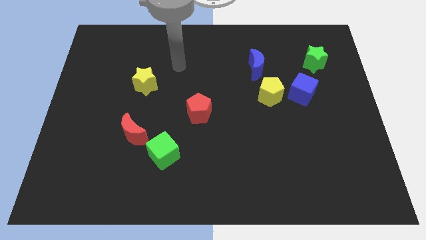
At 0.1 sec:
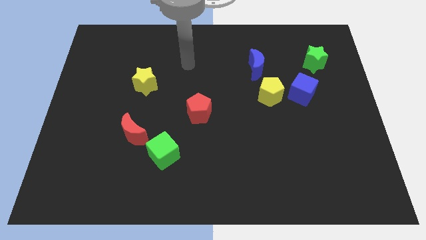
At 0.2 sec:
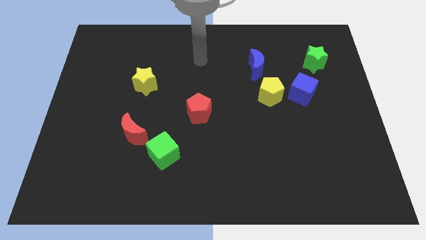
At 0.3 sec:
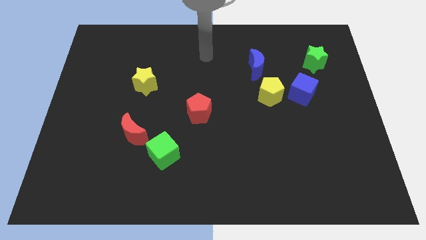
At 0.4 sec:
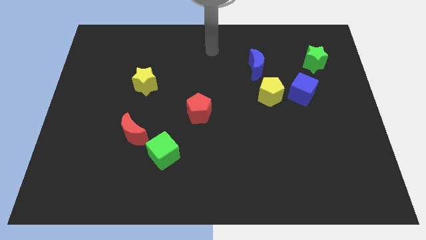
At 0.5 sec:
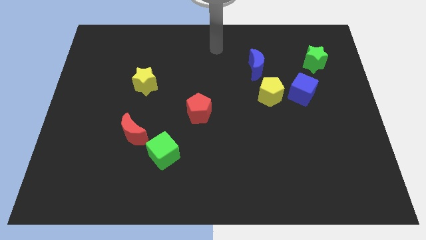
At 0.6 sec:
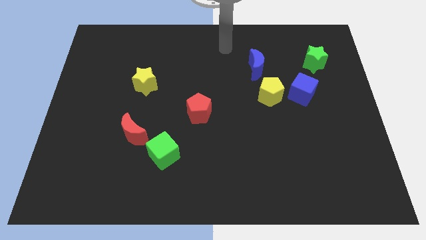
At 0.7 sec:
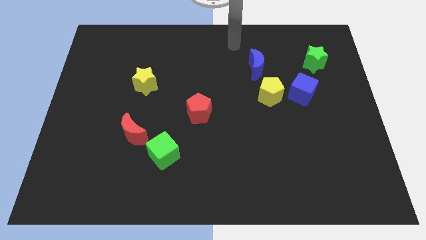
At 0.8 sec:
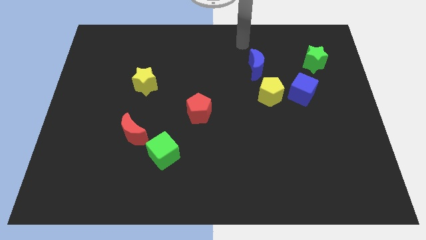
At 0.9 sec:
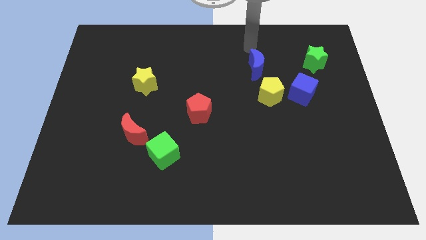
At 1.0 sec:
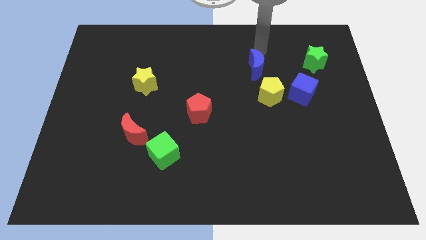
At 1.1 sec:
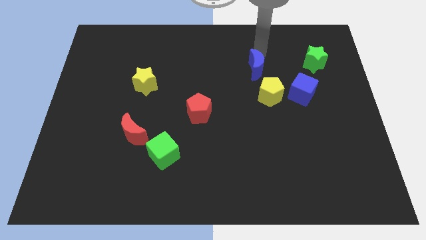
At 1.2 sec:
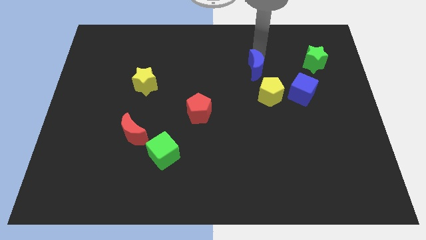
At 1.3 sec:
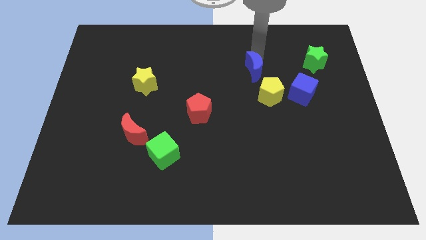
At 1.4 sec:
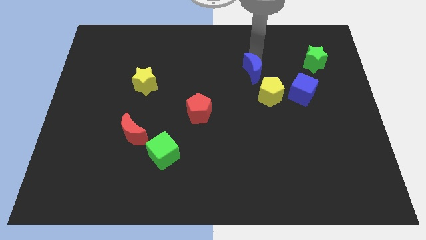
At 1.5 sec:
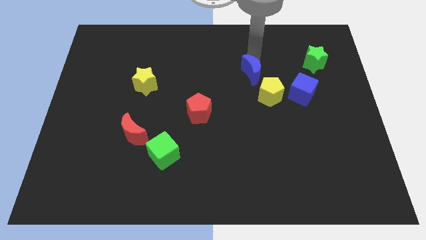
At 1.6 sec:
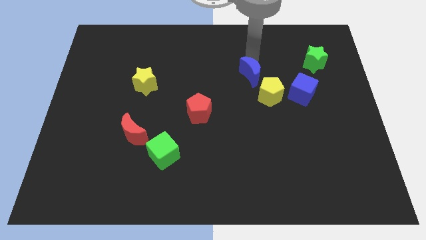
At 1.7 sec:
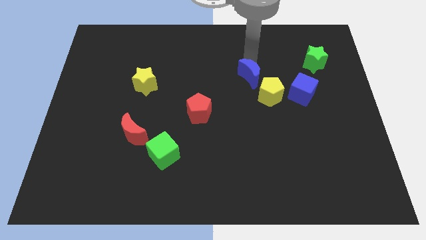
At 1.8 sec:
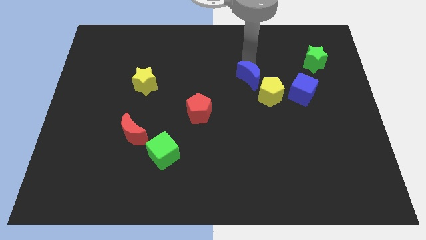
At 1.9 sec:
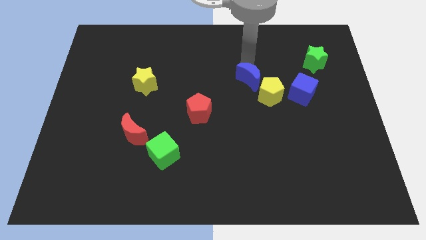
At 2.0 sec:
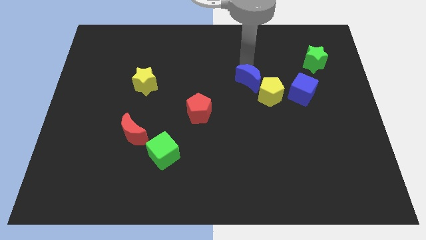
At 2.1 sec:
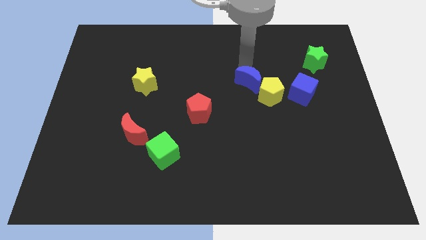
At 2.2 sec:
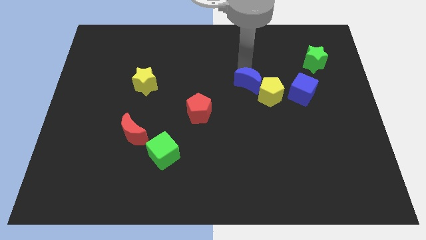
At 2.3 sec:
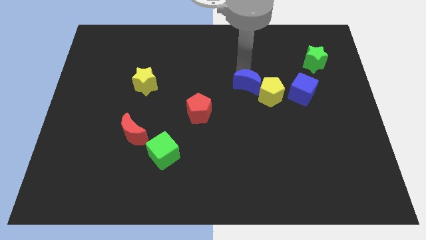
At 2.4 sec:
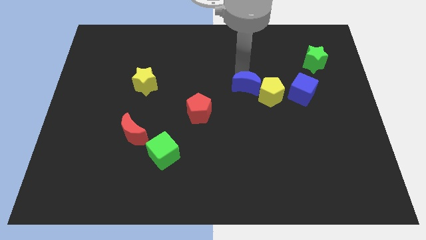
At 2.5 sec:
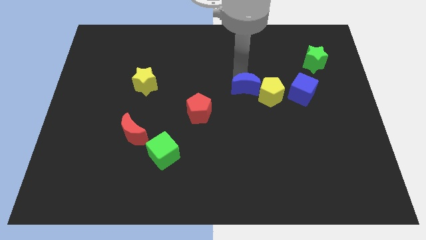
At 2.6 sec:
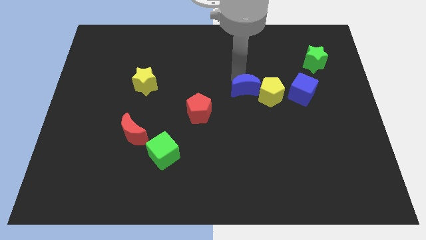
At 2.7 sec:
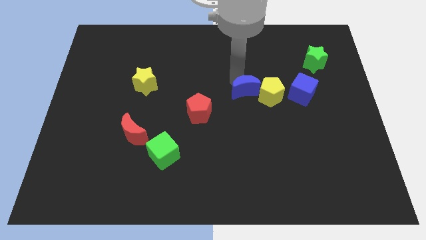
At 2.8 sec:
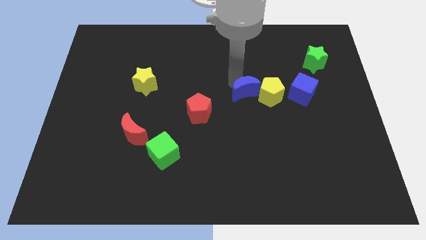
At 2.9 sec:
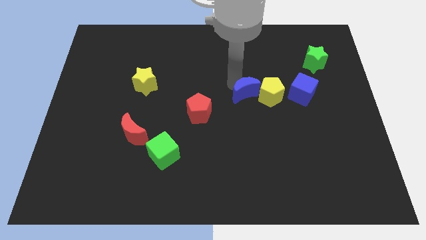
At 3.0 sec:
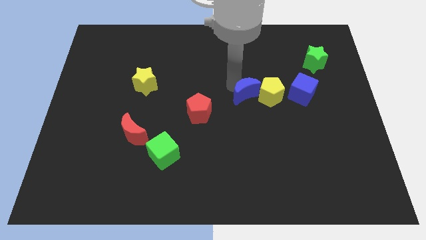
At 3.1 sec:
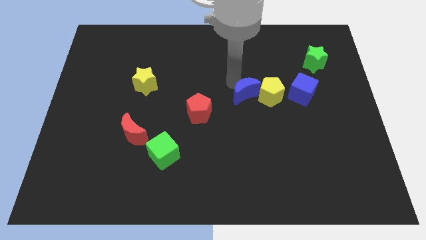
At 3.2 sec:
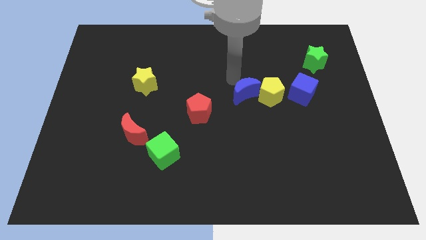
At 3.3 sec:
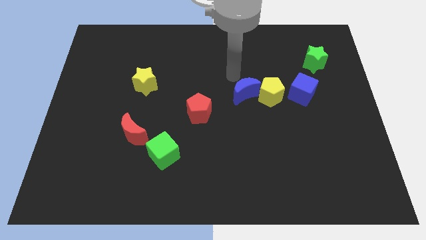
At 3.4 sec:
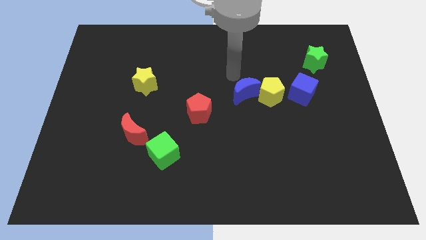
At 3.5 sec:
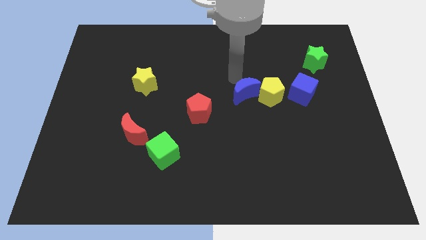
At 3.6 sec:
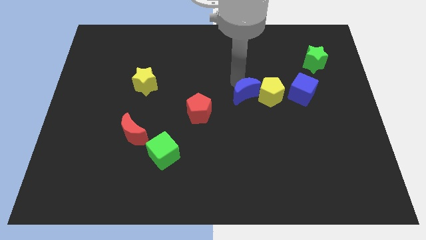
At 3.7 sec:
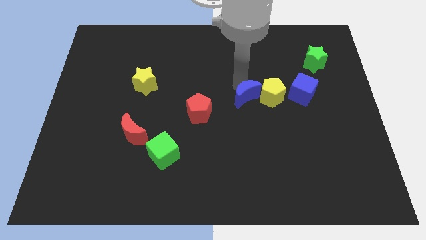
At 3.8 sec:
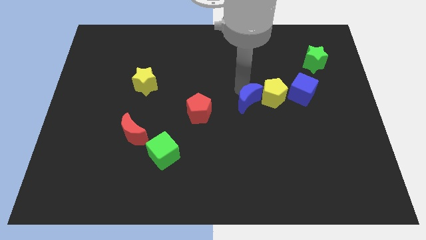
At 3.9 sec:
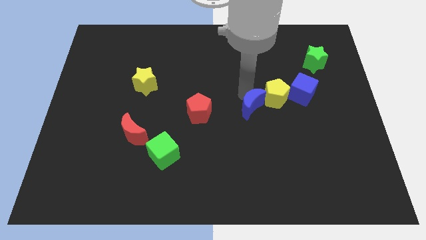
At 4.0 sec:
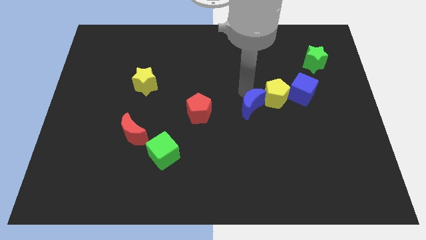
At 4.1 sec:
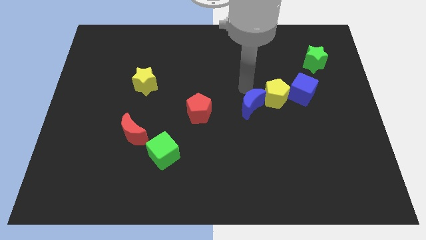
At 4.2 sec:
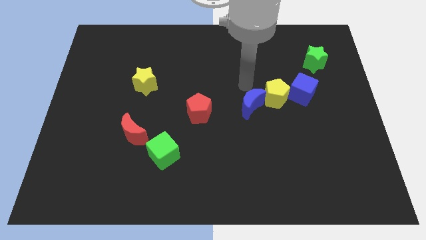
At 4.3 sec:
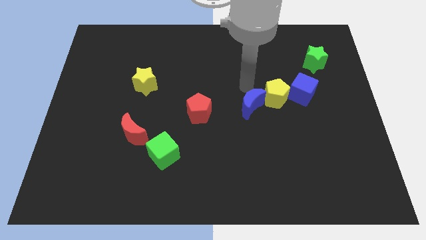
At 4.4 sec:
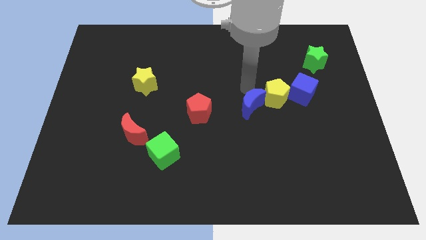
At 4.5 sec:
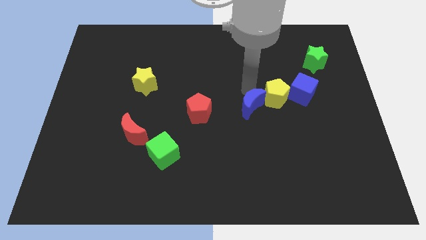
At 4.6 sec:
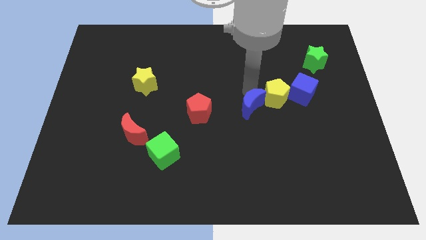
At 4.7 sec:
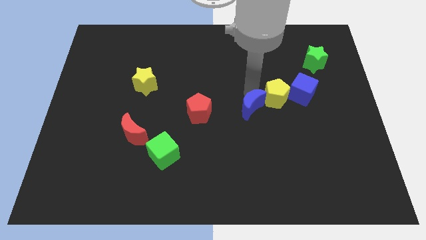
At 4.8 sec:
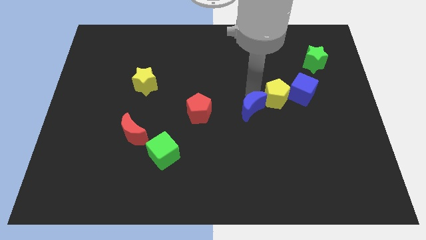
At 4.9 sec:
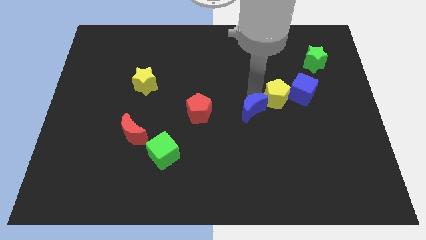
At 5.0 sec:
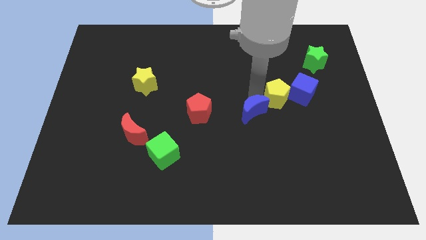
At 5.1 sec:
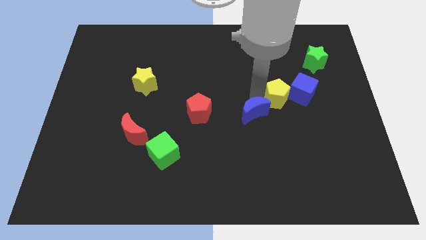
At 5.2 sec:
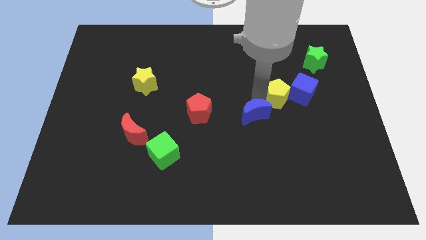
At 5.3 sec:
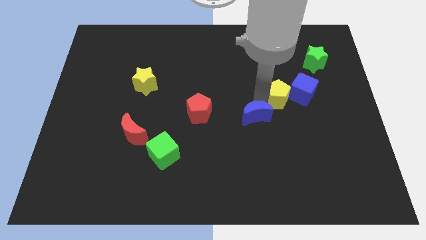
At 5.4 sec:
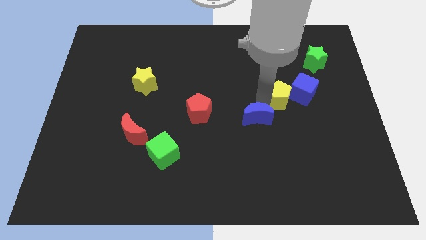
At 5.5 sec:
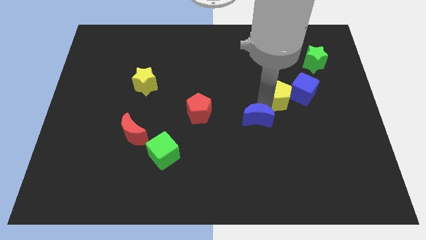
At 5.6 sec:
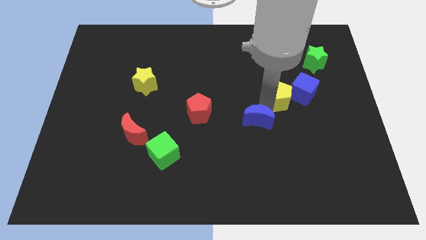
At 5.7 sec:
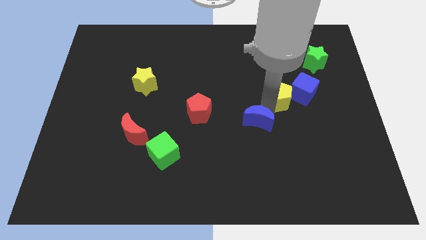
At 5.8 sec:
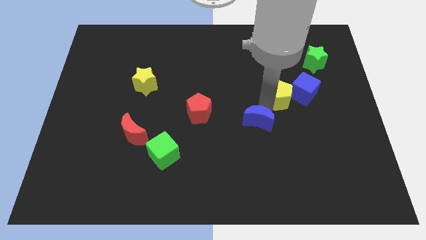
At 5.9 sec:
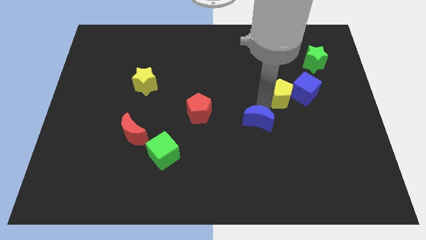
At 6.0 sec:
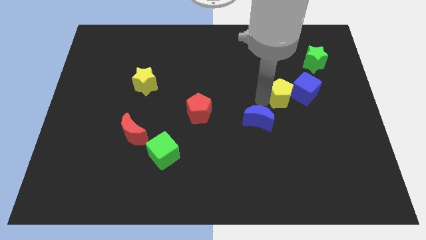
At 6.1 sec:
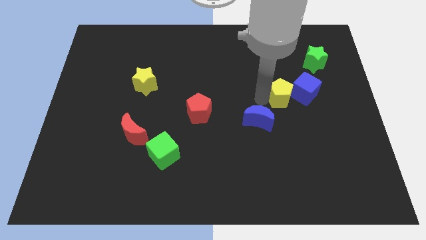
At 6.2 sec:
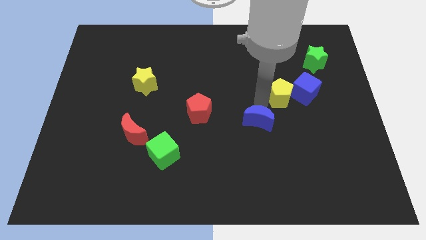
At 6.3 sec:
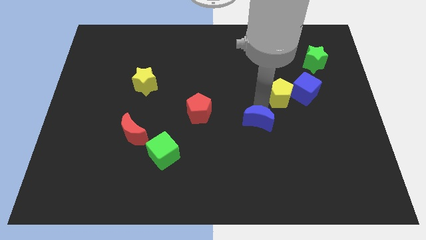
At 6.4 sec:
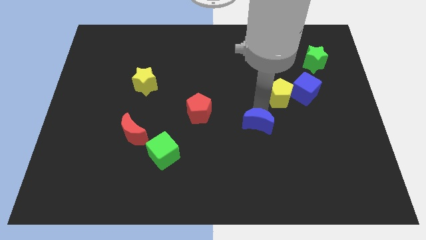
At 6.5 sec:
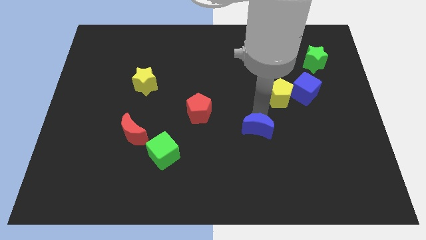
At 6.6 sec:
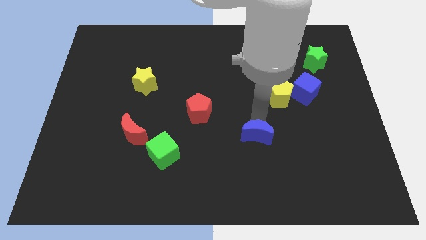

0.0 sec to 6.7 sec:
push the blue moon down

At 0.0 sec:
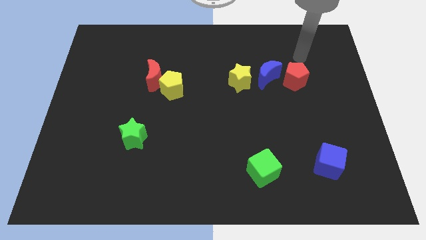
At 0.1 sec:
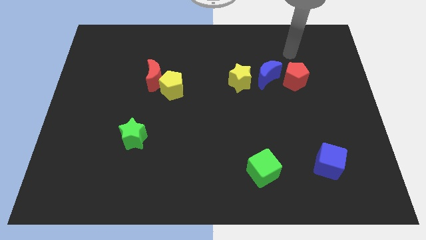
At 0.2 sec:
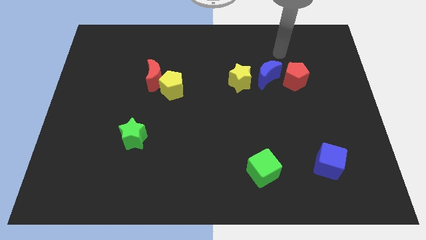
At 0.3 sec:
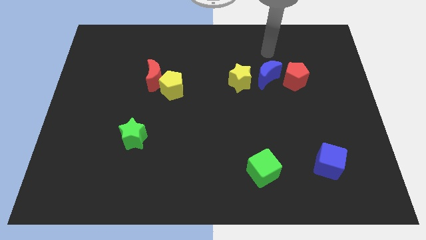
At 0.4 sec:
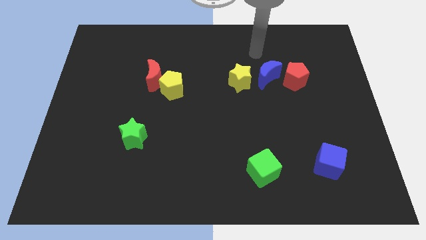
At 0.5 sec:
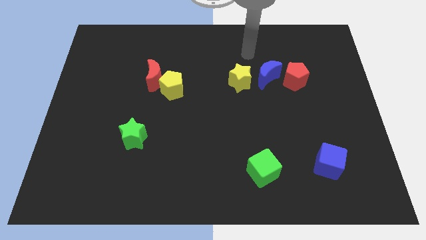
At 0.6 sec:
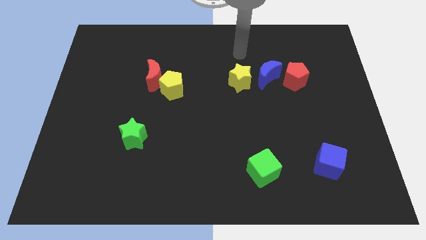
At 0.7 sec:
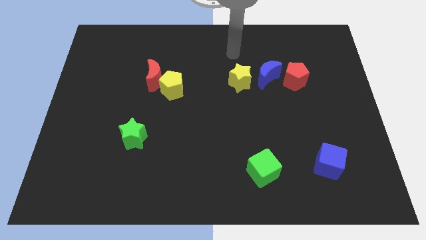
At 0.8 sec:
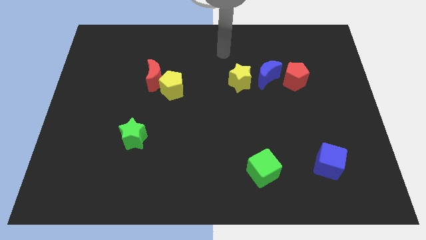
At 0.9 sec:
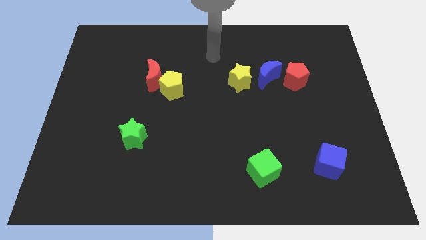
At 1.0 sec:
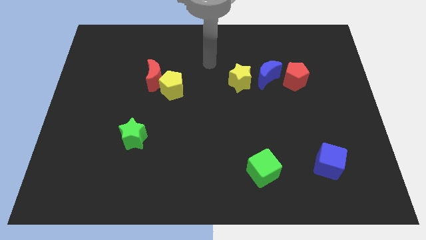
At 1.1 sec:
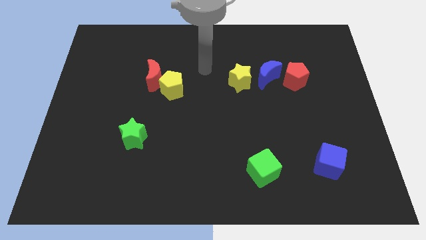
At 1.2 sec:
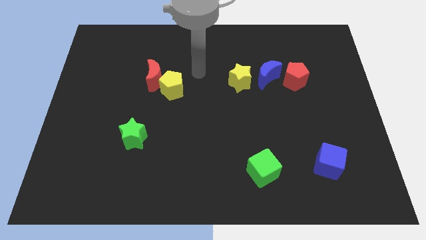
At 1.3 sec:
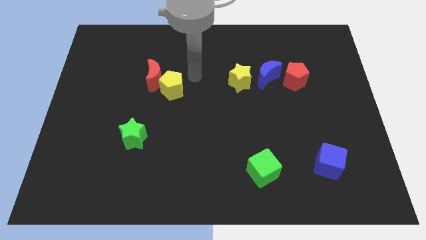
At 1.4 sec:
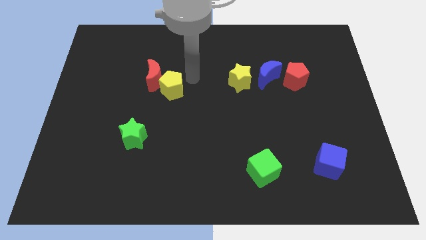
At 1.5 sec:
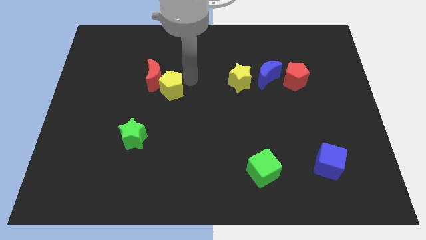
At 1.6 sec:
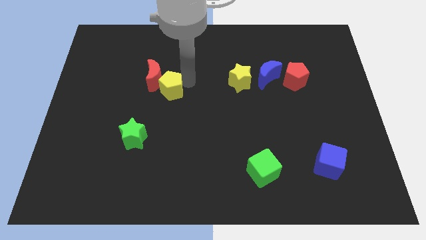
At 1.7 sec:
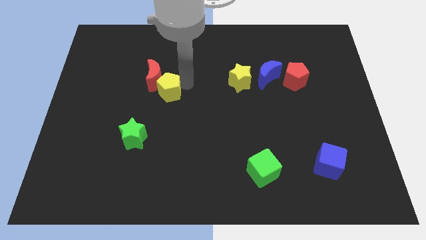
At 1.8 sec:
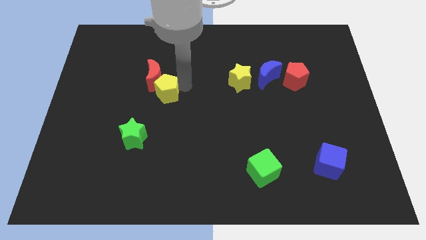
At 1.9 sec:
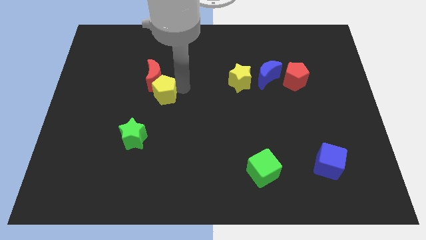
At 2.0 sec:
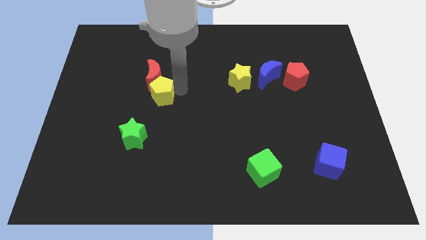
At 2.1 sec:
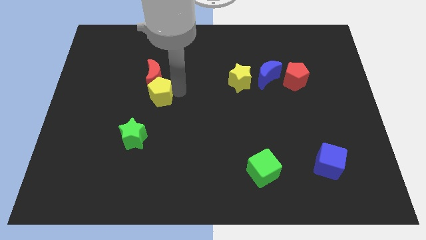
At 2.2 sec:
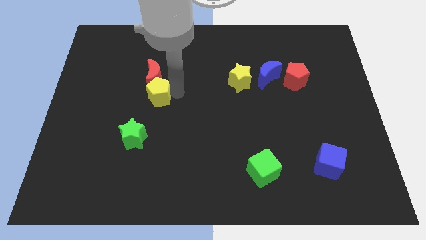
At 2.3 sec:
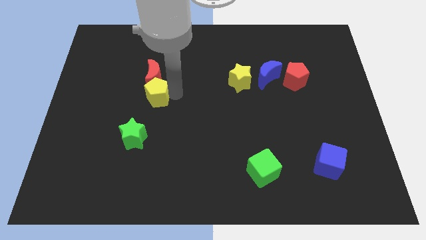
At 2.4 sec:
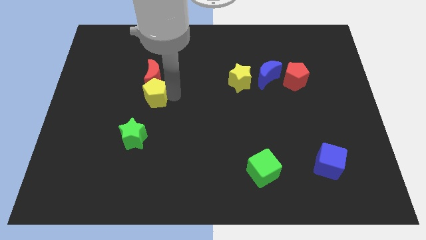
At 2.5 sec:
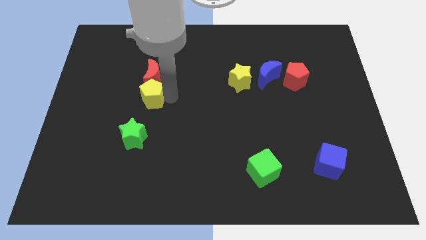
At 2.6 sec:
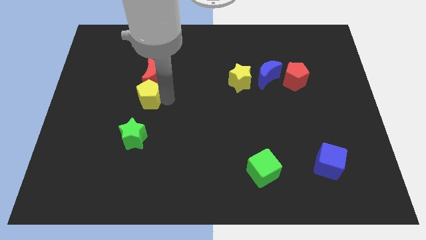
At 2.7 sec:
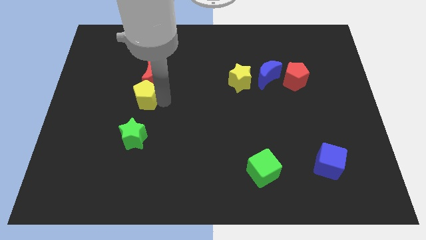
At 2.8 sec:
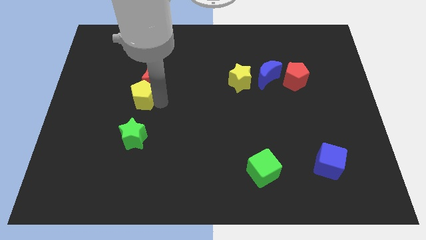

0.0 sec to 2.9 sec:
slightly slide the yellow pentagon down and to the left
